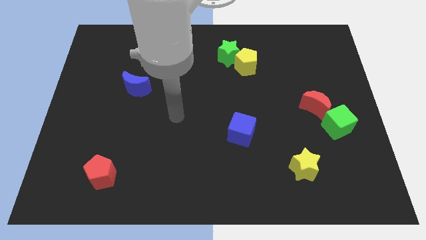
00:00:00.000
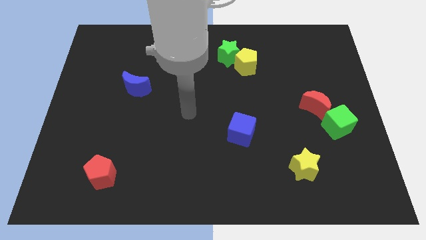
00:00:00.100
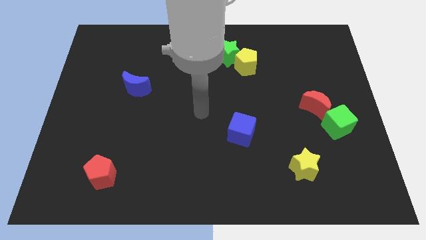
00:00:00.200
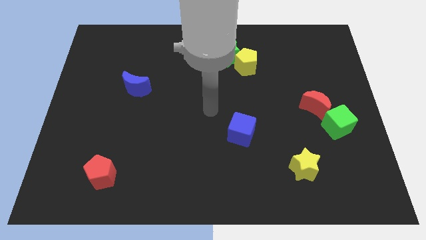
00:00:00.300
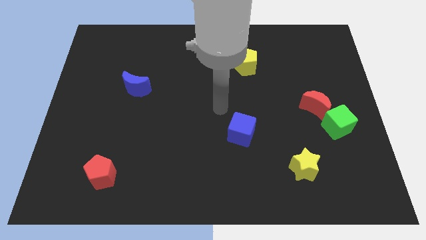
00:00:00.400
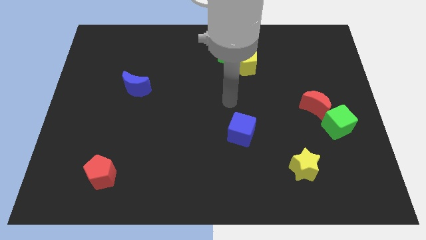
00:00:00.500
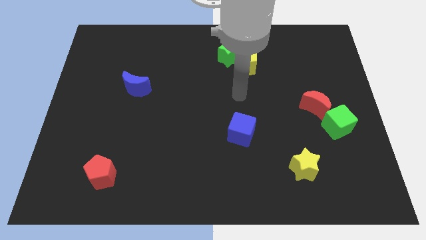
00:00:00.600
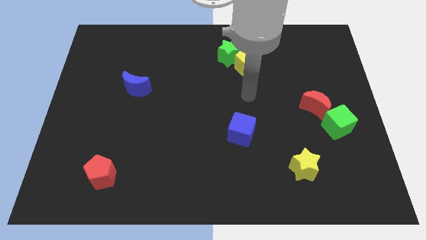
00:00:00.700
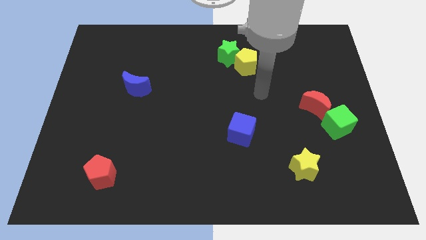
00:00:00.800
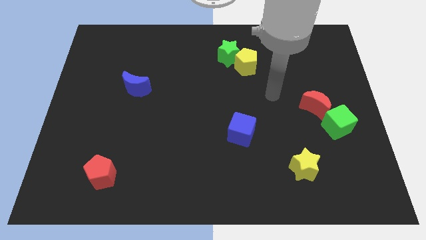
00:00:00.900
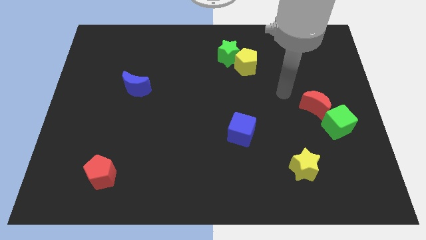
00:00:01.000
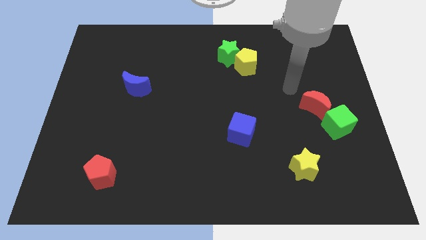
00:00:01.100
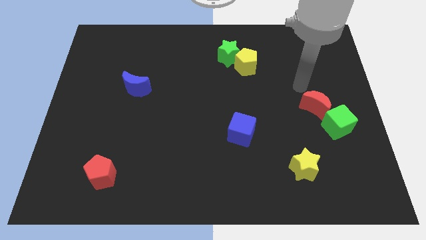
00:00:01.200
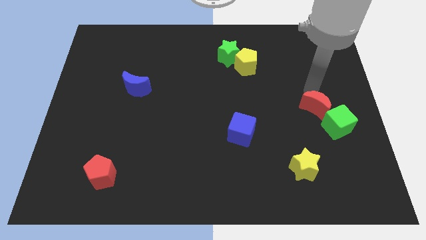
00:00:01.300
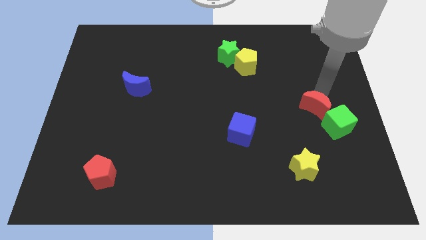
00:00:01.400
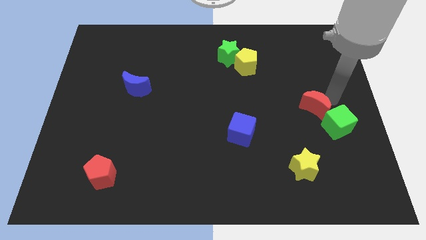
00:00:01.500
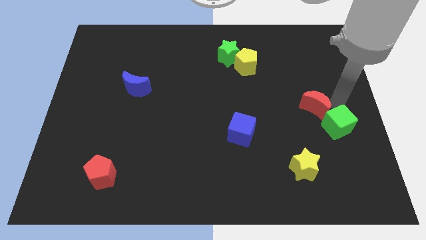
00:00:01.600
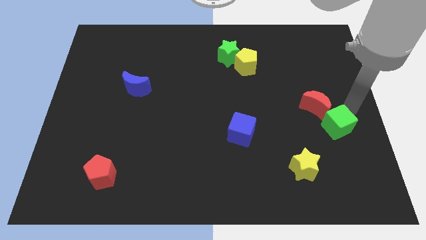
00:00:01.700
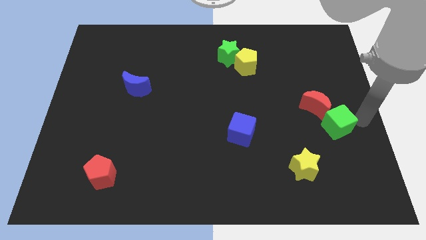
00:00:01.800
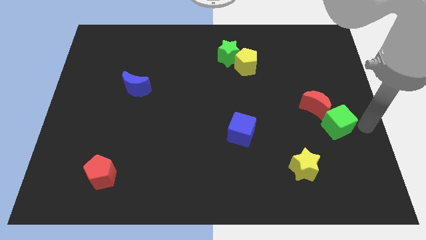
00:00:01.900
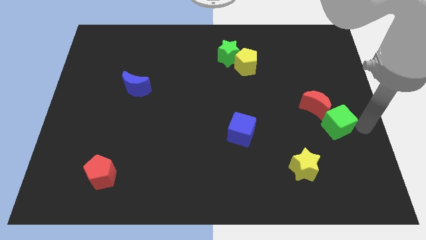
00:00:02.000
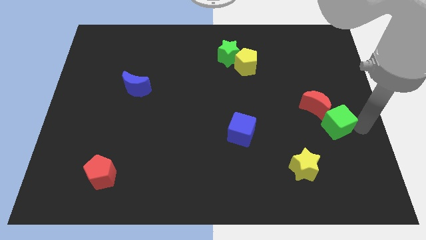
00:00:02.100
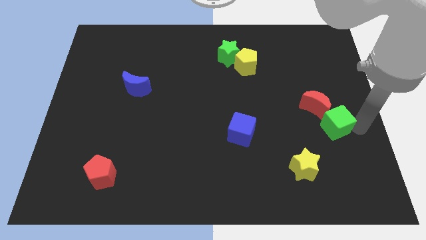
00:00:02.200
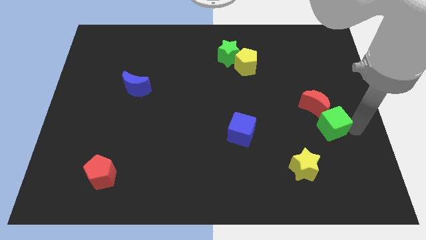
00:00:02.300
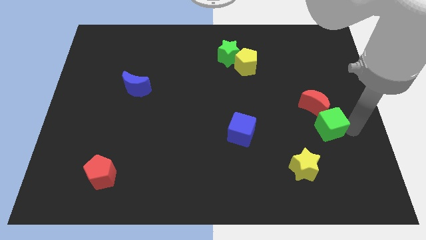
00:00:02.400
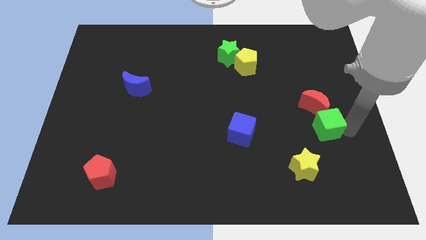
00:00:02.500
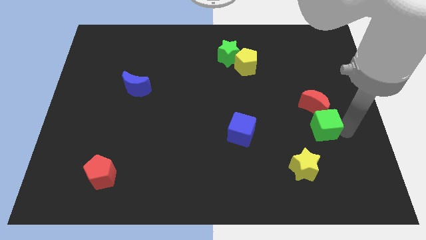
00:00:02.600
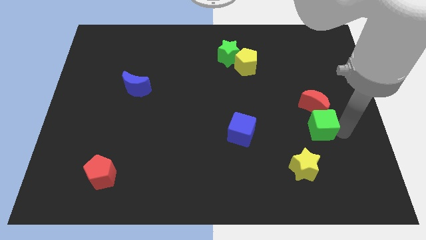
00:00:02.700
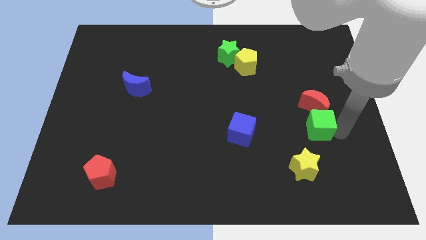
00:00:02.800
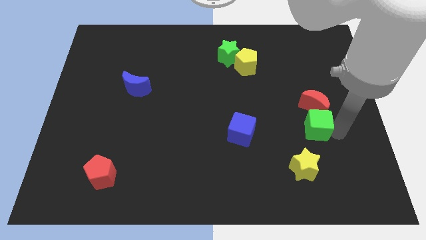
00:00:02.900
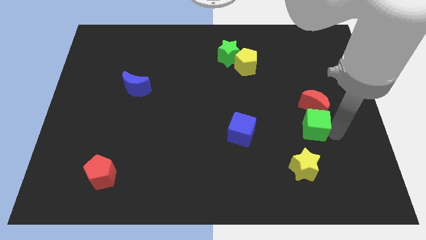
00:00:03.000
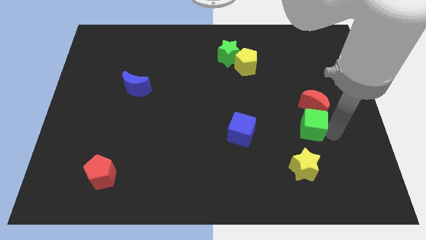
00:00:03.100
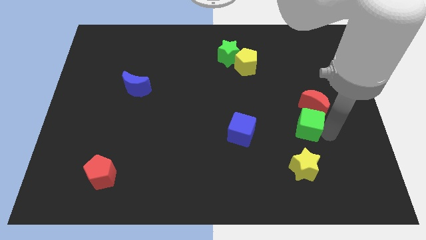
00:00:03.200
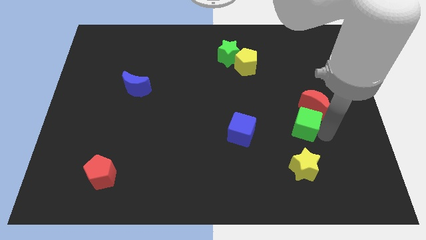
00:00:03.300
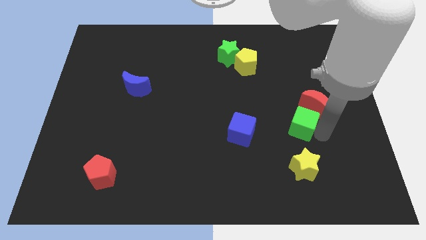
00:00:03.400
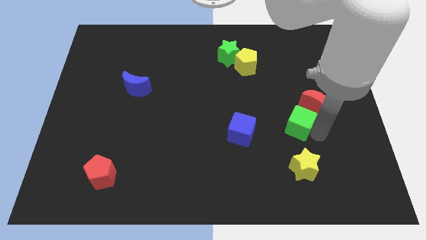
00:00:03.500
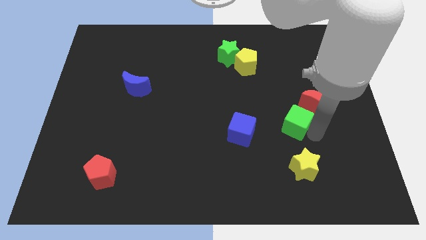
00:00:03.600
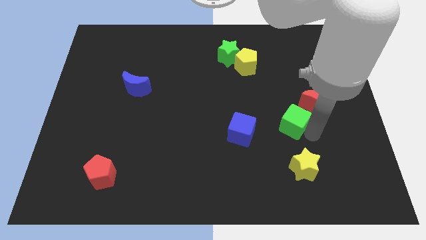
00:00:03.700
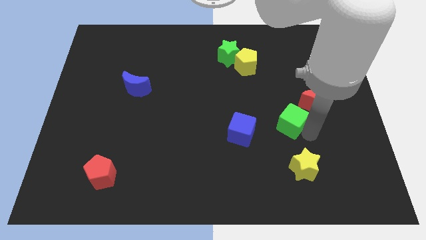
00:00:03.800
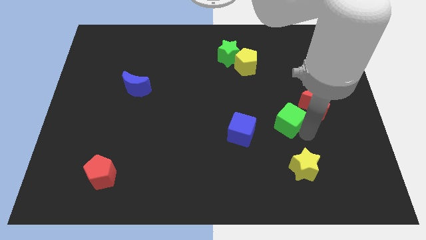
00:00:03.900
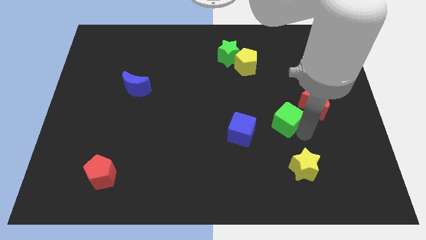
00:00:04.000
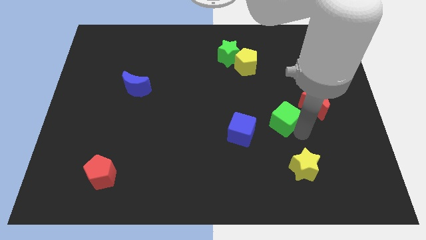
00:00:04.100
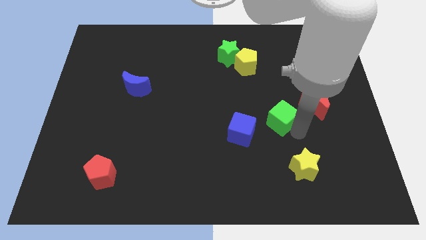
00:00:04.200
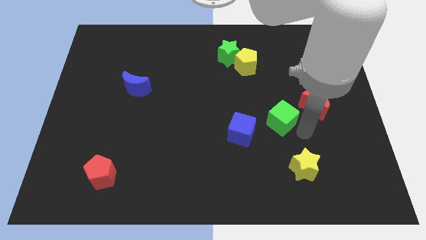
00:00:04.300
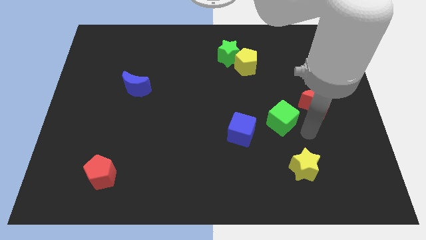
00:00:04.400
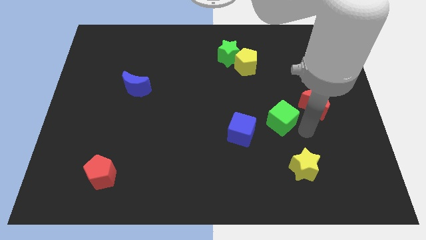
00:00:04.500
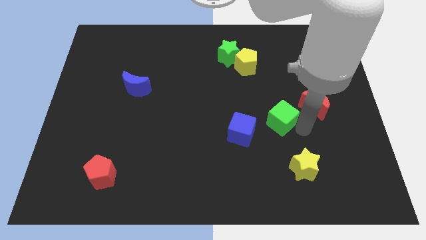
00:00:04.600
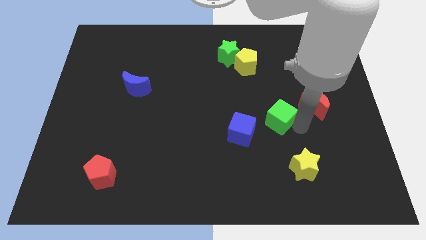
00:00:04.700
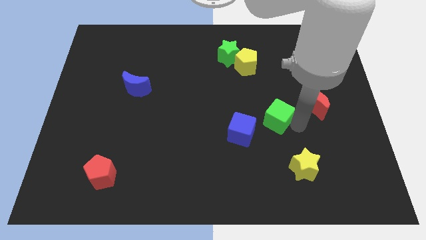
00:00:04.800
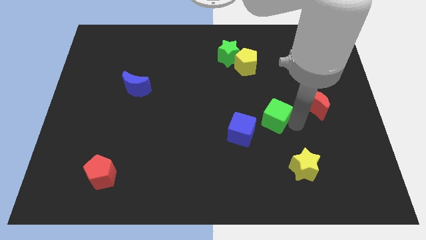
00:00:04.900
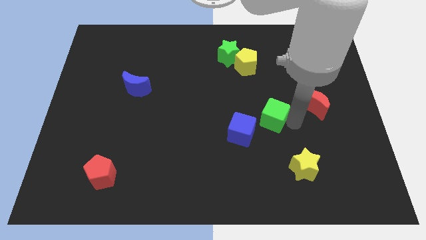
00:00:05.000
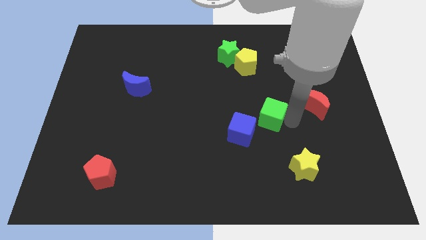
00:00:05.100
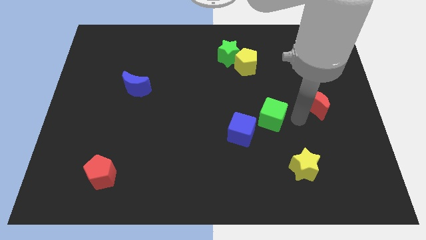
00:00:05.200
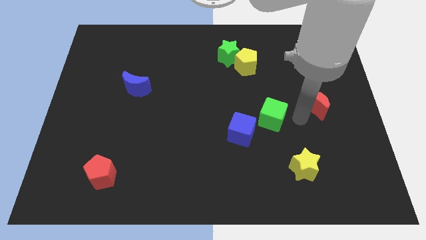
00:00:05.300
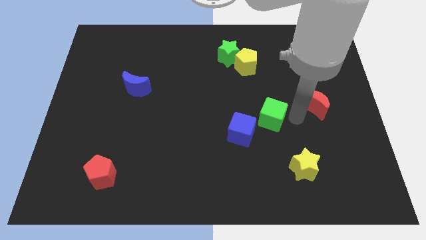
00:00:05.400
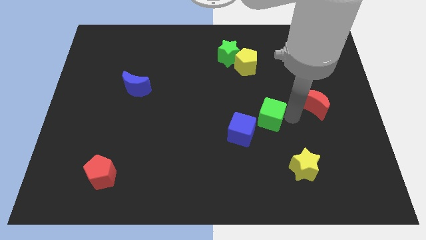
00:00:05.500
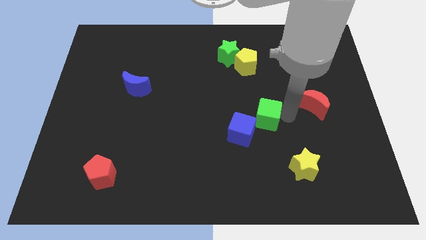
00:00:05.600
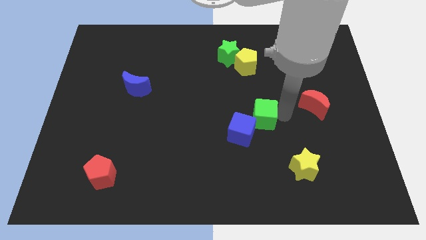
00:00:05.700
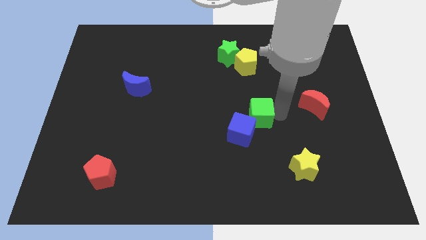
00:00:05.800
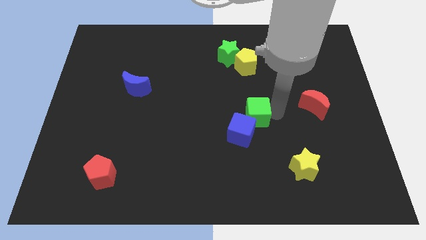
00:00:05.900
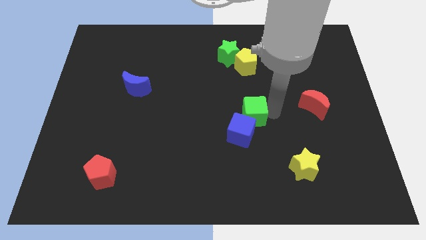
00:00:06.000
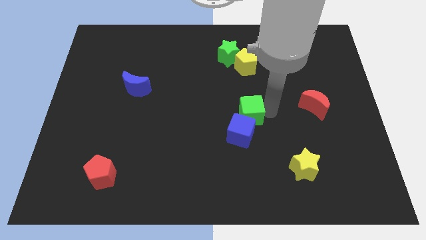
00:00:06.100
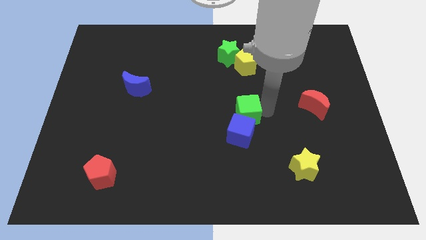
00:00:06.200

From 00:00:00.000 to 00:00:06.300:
push the green cube to the left

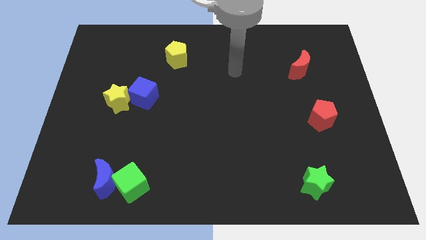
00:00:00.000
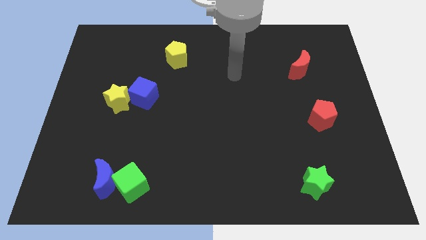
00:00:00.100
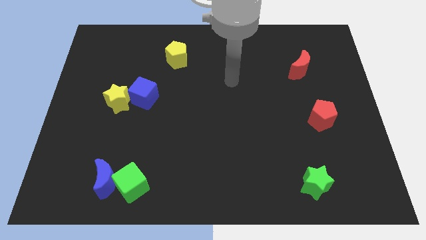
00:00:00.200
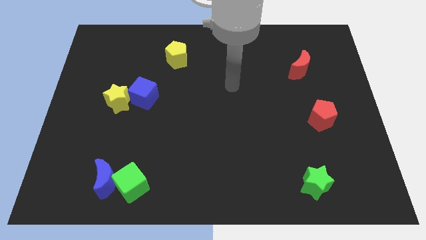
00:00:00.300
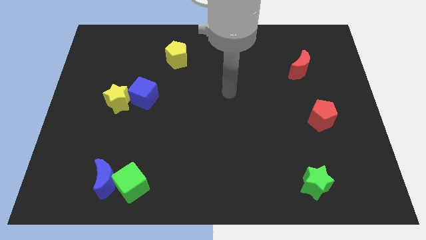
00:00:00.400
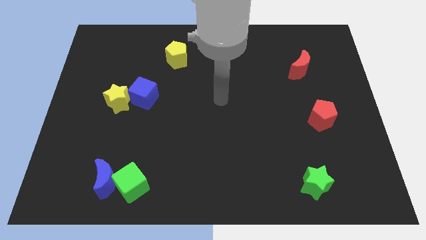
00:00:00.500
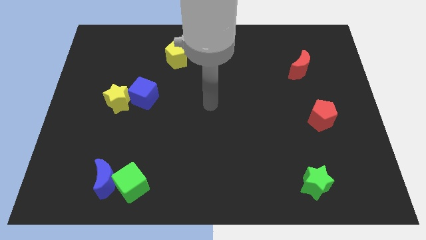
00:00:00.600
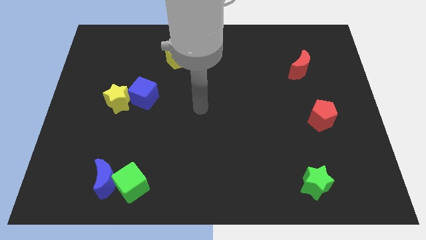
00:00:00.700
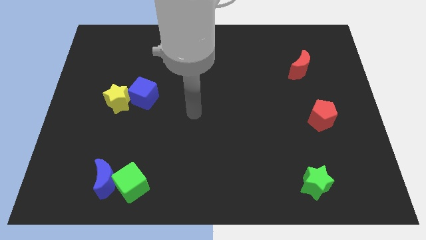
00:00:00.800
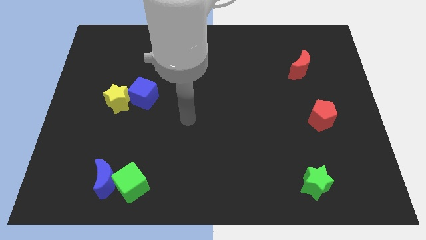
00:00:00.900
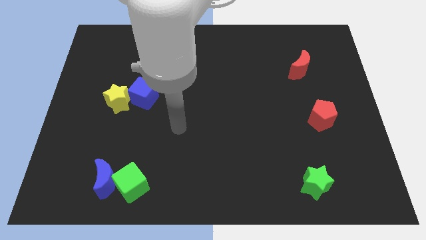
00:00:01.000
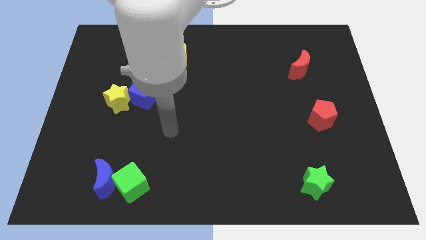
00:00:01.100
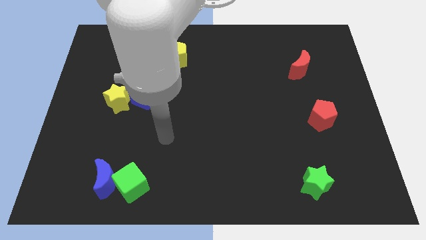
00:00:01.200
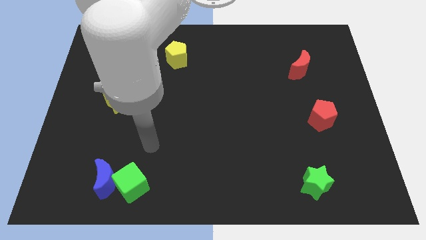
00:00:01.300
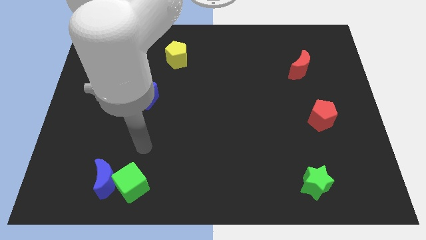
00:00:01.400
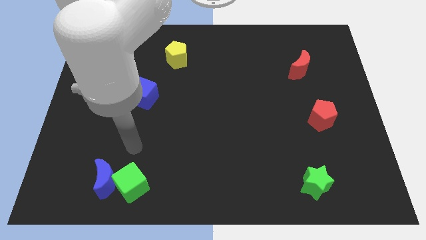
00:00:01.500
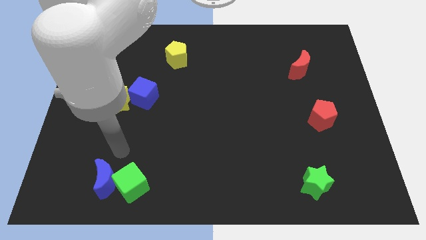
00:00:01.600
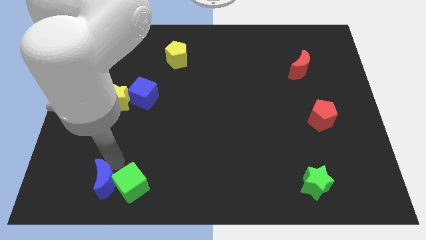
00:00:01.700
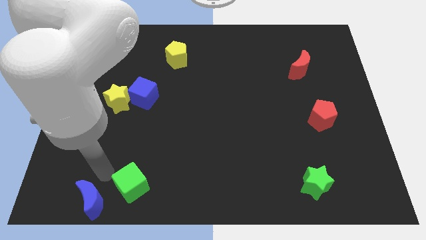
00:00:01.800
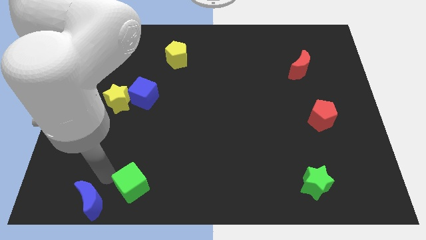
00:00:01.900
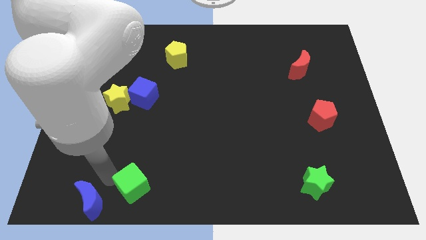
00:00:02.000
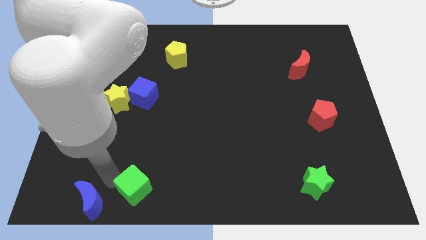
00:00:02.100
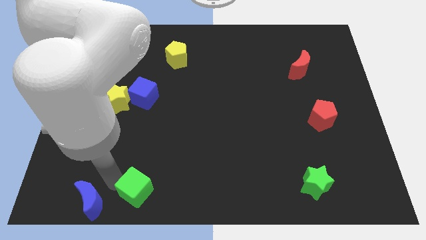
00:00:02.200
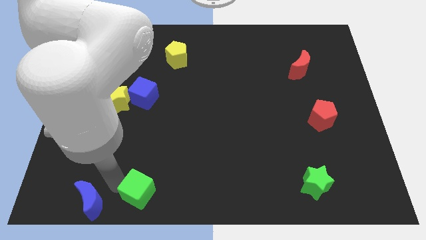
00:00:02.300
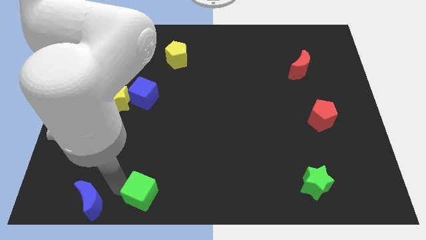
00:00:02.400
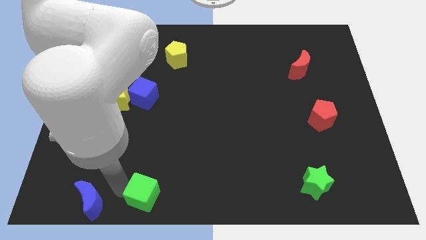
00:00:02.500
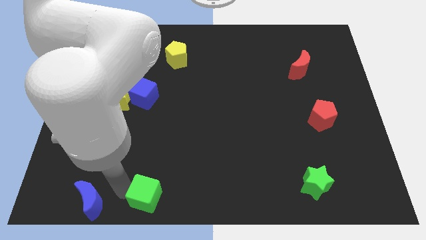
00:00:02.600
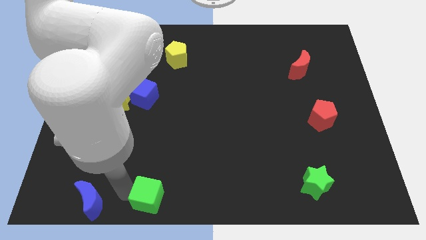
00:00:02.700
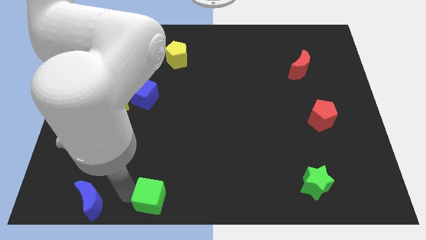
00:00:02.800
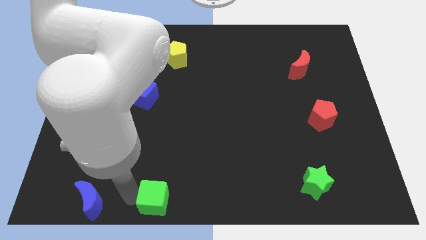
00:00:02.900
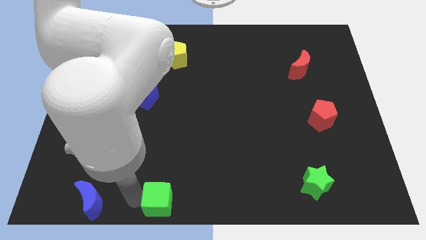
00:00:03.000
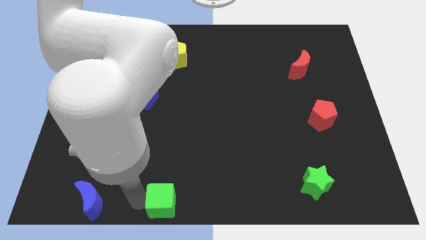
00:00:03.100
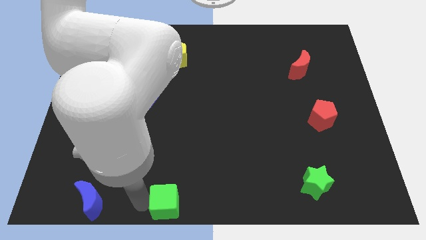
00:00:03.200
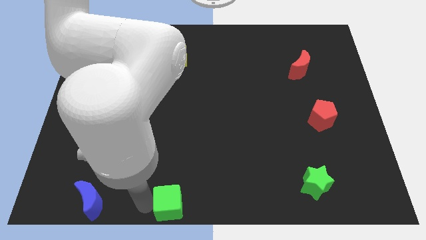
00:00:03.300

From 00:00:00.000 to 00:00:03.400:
move the green cube right slightly
